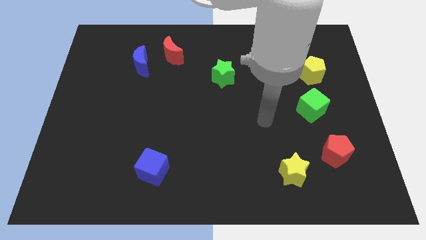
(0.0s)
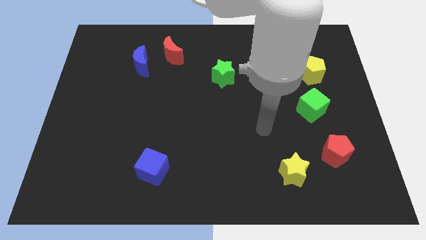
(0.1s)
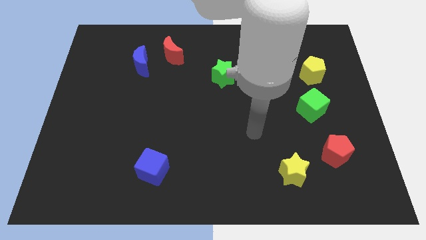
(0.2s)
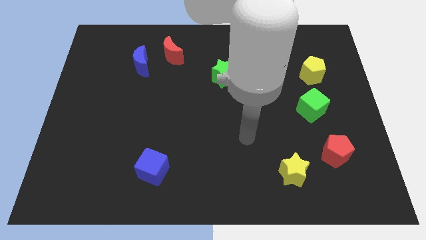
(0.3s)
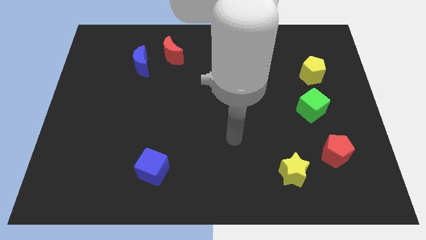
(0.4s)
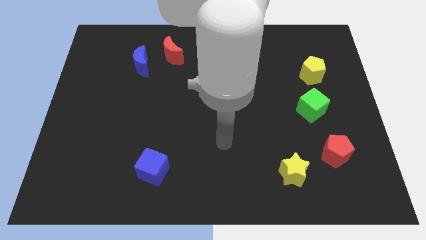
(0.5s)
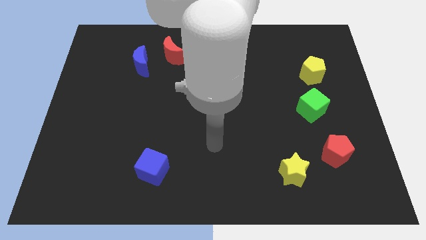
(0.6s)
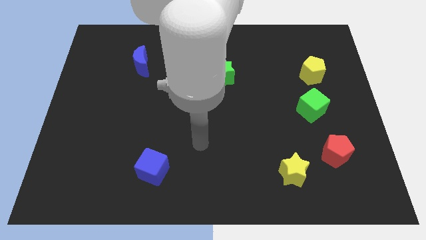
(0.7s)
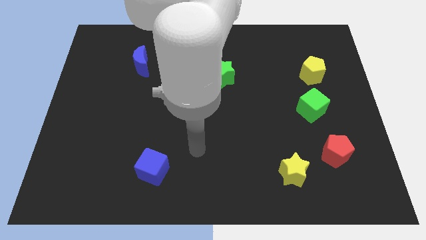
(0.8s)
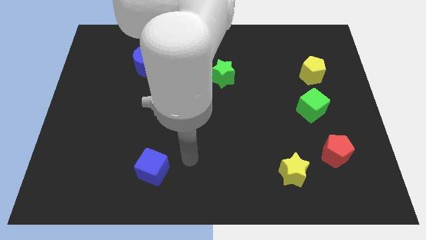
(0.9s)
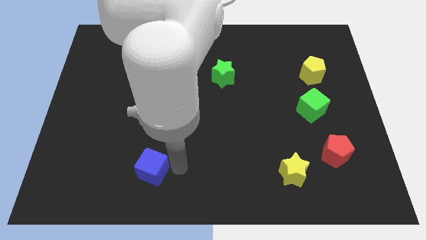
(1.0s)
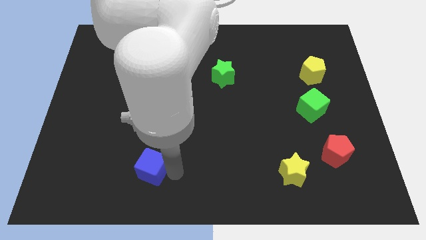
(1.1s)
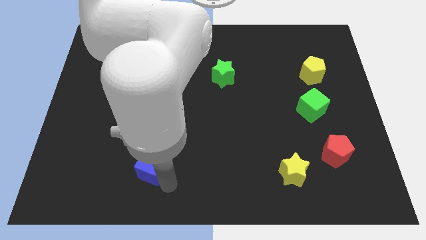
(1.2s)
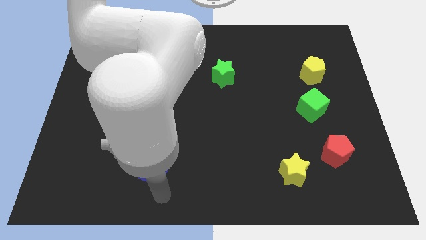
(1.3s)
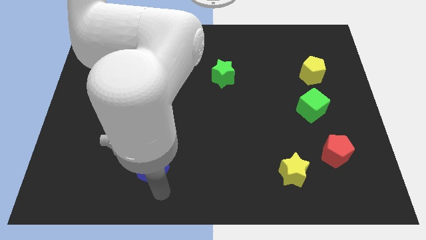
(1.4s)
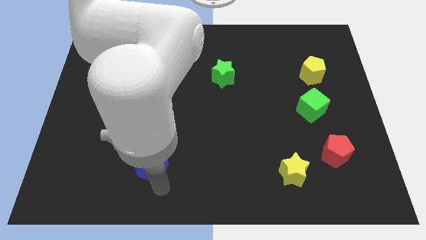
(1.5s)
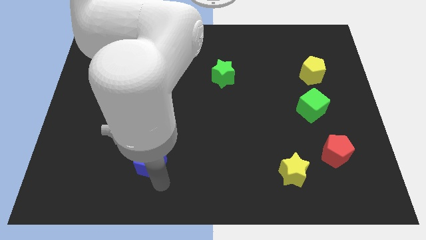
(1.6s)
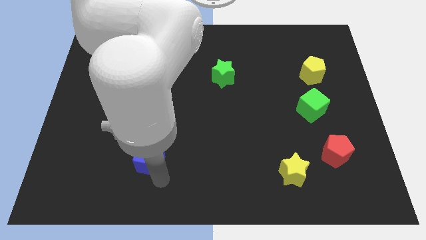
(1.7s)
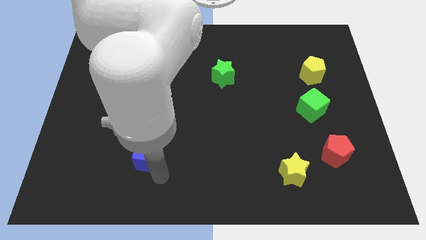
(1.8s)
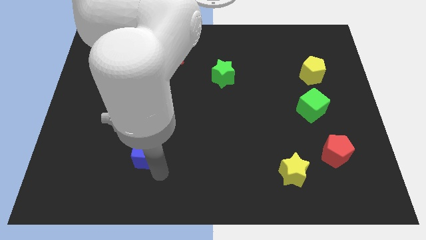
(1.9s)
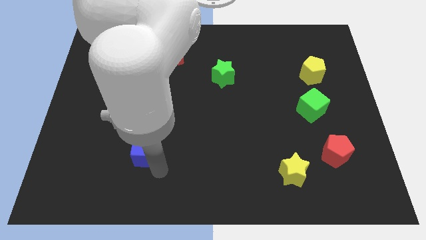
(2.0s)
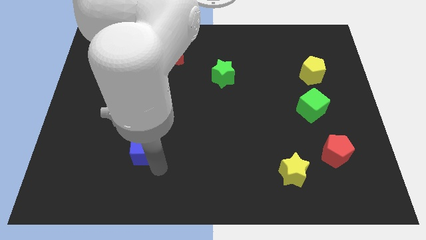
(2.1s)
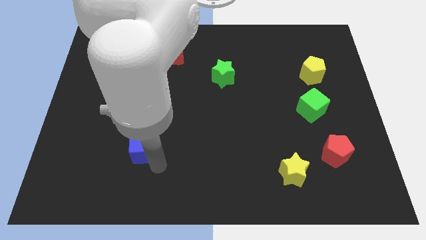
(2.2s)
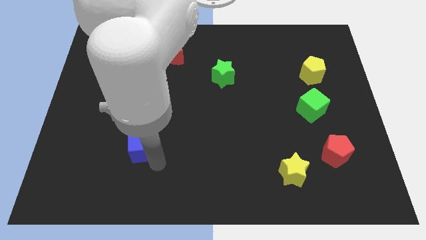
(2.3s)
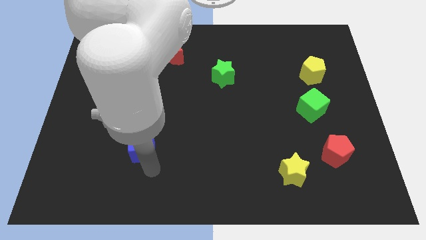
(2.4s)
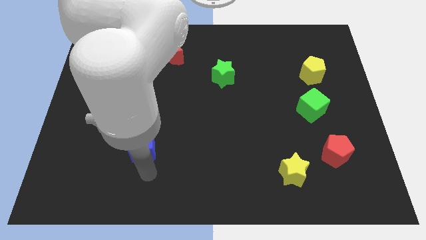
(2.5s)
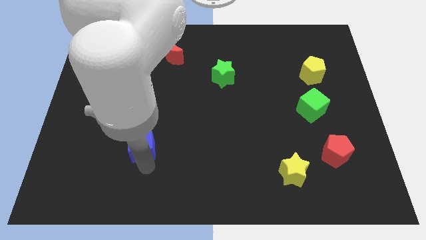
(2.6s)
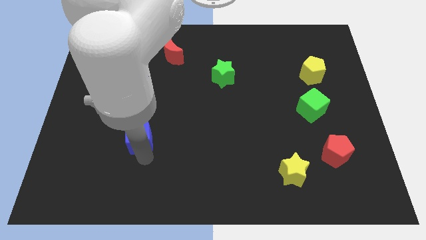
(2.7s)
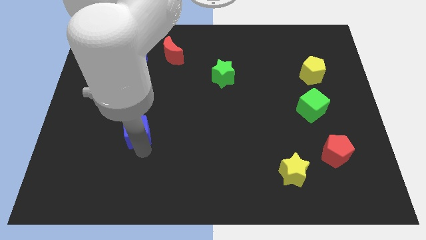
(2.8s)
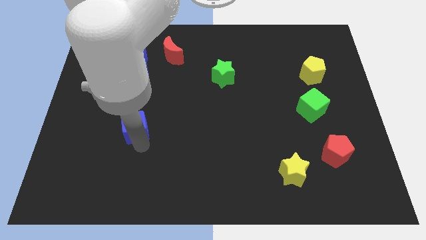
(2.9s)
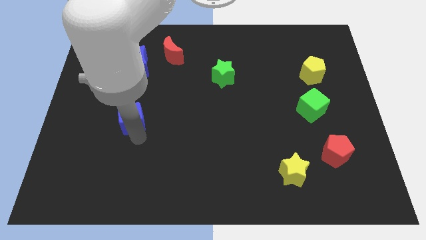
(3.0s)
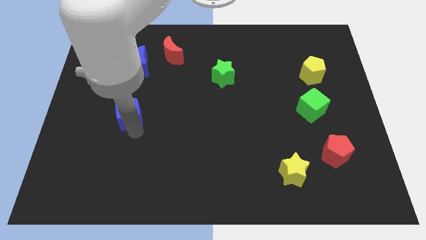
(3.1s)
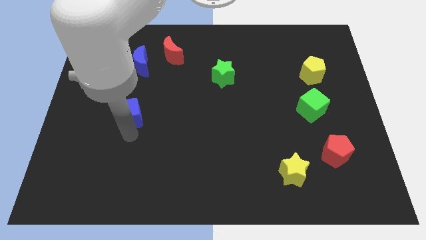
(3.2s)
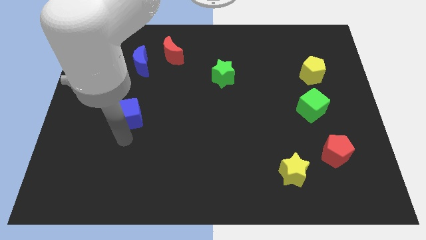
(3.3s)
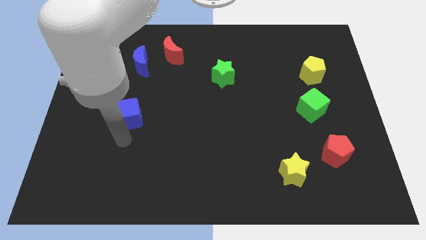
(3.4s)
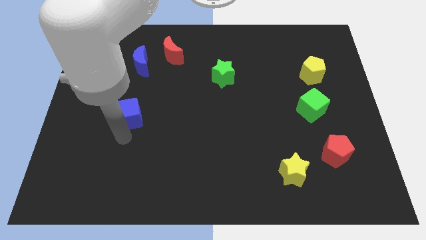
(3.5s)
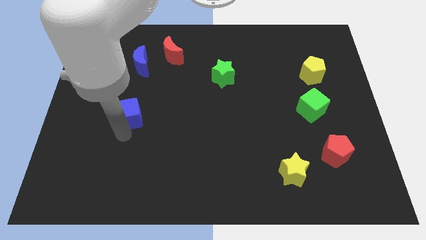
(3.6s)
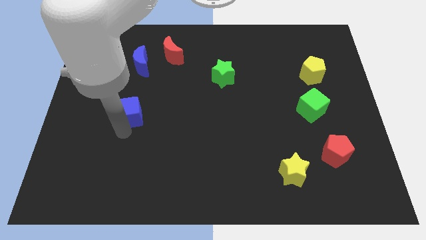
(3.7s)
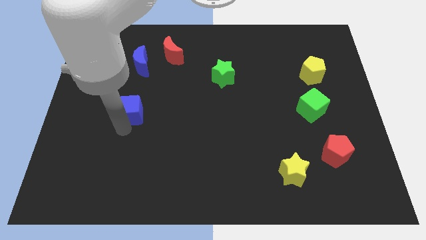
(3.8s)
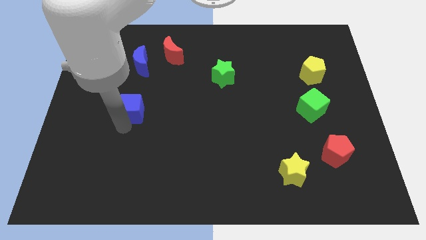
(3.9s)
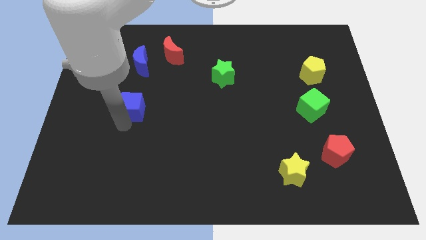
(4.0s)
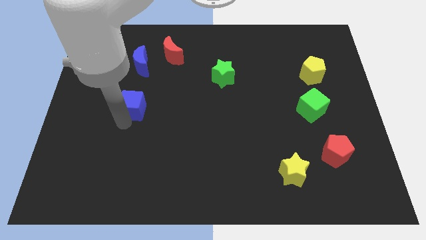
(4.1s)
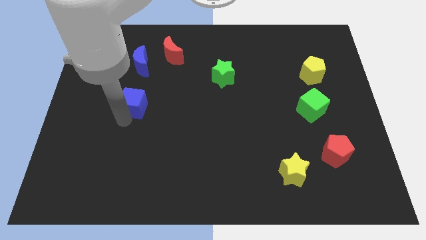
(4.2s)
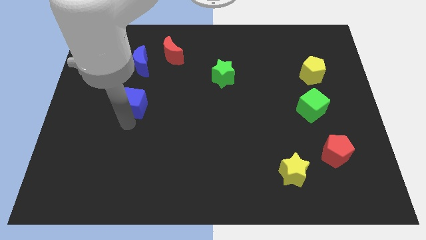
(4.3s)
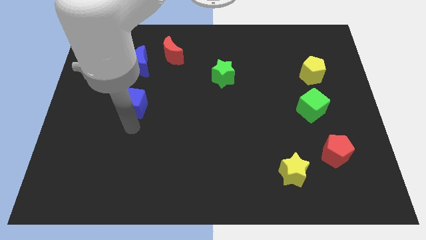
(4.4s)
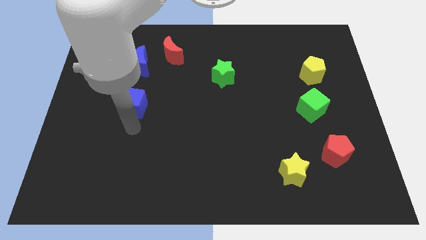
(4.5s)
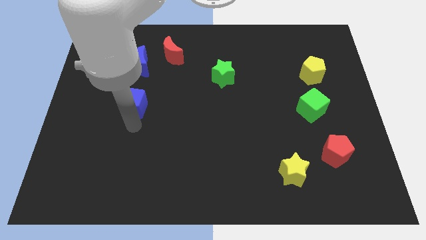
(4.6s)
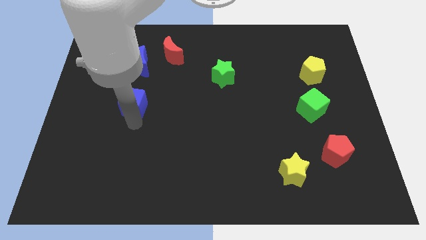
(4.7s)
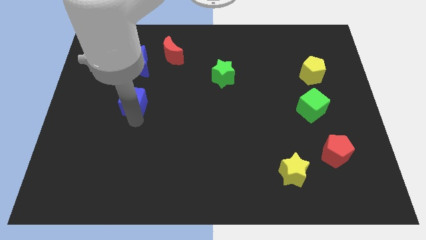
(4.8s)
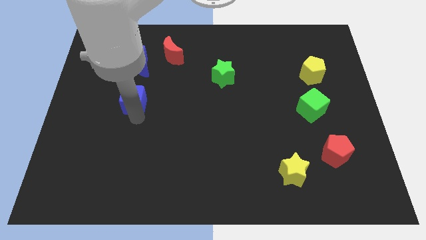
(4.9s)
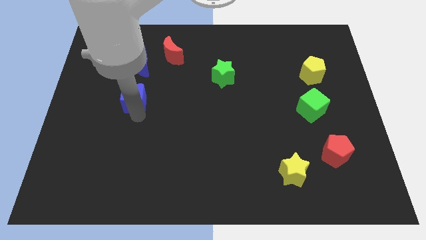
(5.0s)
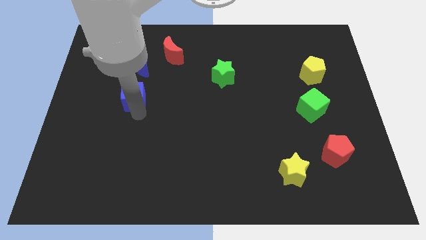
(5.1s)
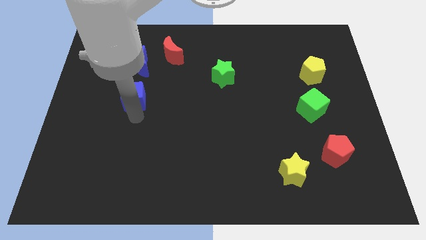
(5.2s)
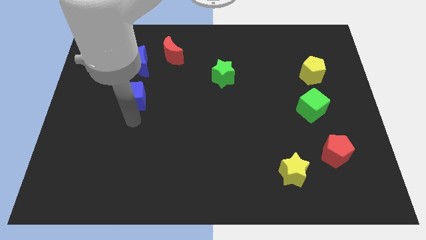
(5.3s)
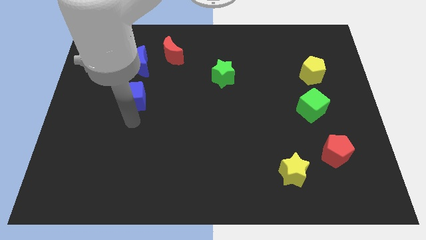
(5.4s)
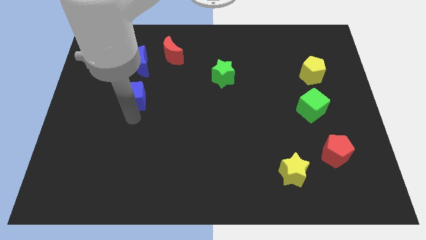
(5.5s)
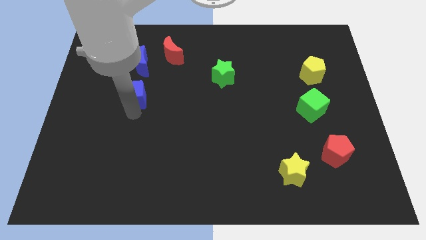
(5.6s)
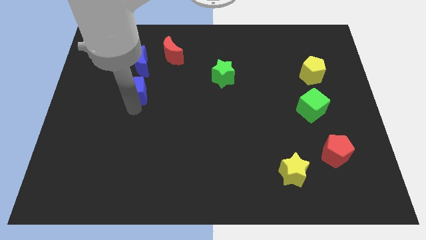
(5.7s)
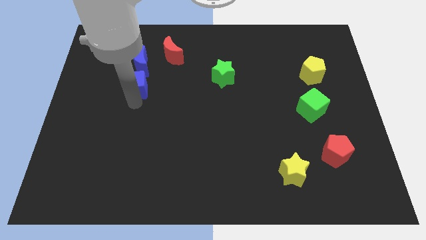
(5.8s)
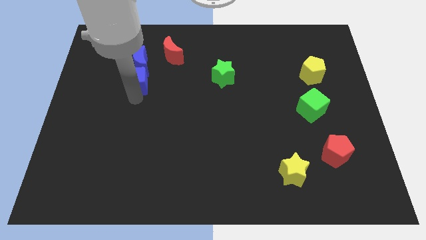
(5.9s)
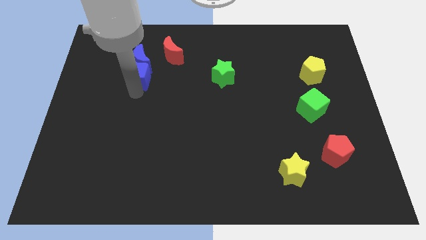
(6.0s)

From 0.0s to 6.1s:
push the blue cube next to the blue moon

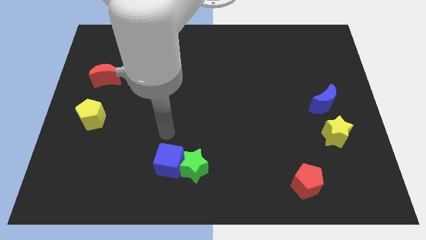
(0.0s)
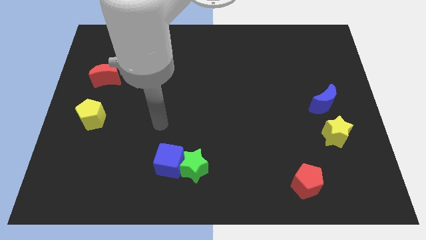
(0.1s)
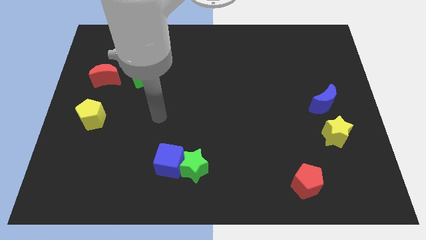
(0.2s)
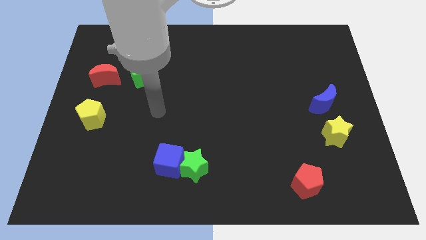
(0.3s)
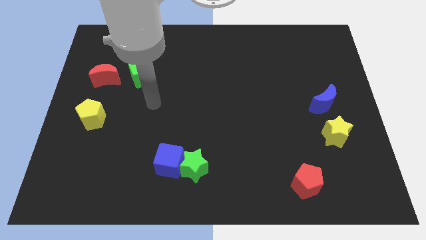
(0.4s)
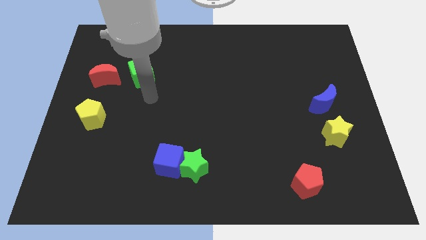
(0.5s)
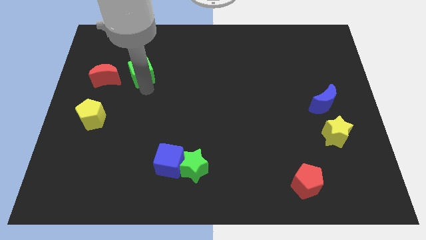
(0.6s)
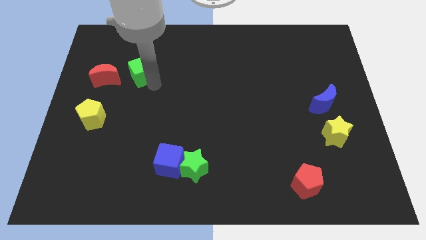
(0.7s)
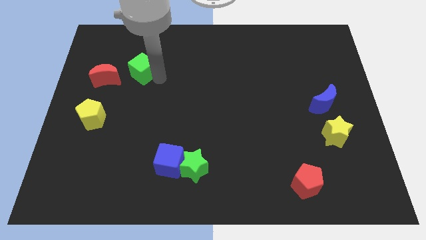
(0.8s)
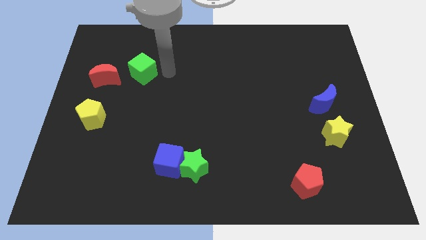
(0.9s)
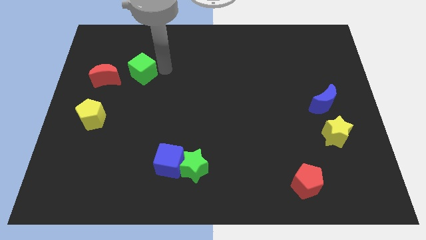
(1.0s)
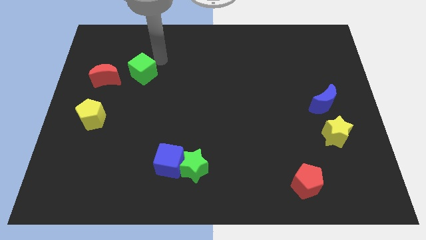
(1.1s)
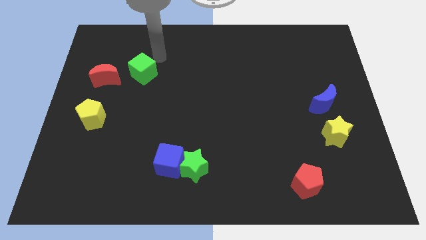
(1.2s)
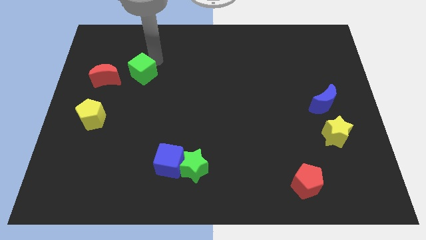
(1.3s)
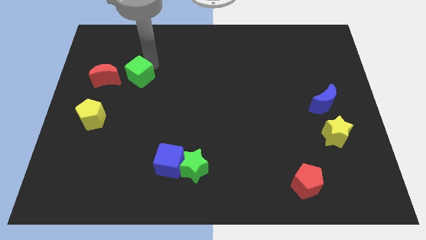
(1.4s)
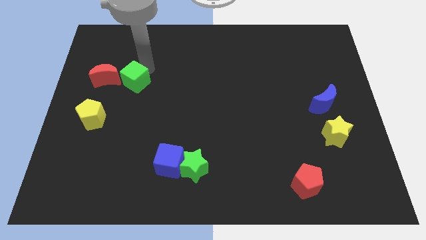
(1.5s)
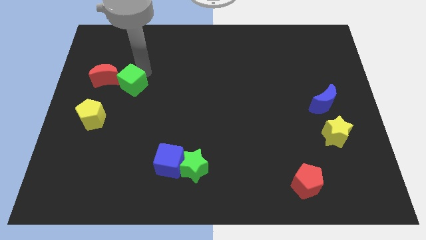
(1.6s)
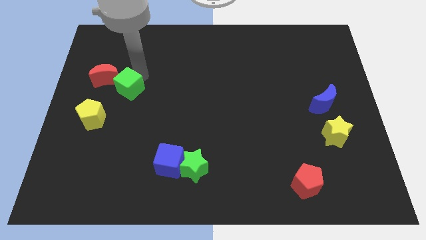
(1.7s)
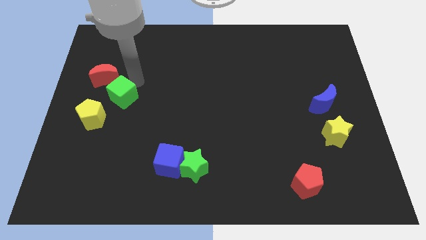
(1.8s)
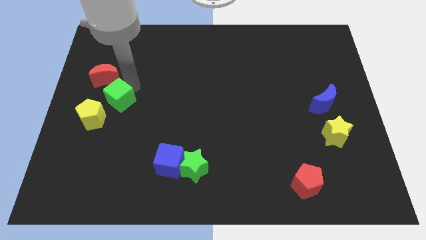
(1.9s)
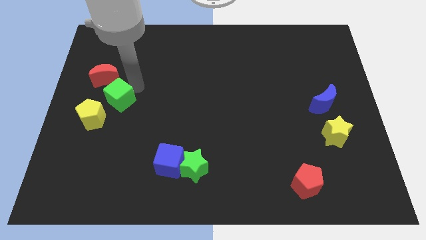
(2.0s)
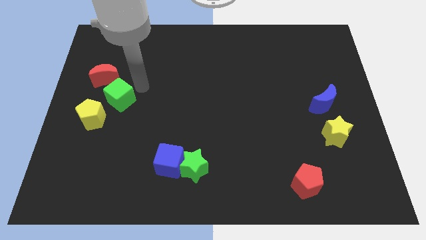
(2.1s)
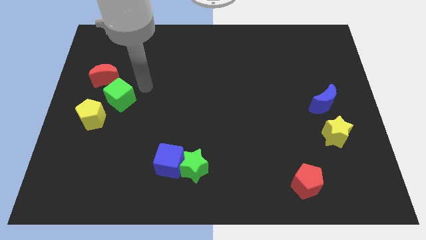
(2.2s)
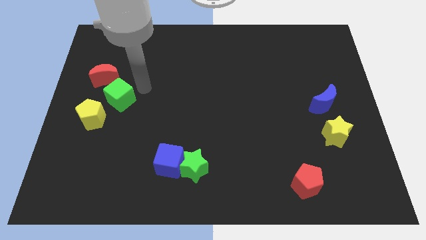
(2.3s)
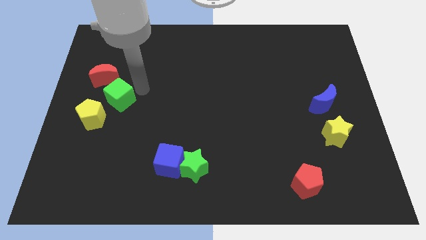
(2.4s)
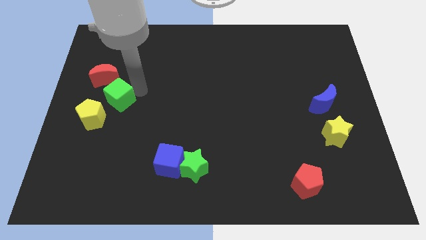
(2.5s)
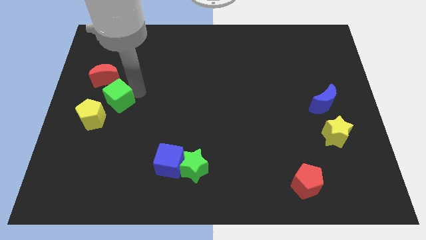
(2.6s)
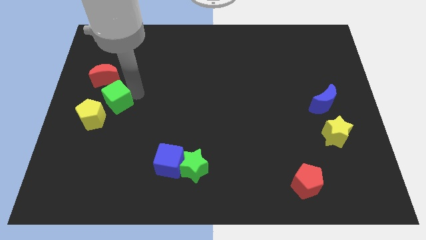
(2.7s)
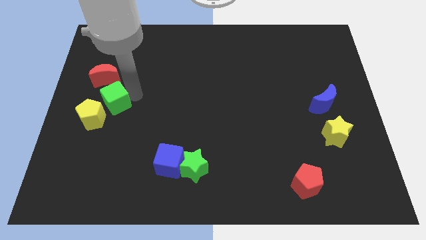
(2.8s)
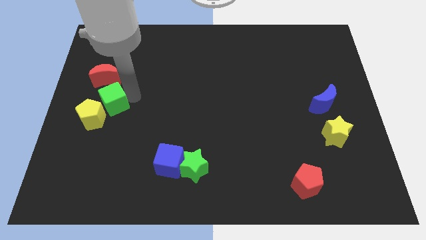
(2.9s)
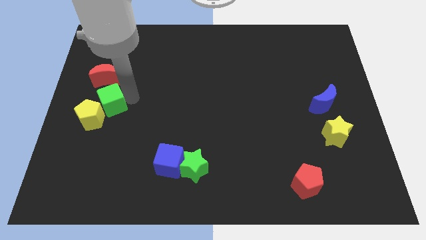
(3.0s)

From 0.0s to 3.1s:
move the green cube next to the yellow pentagon
